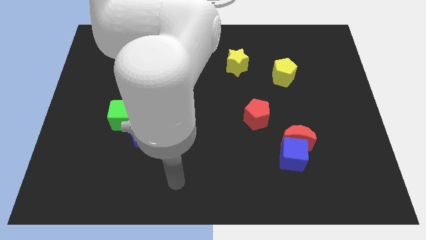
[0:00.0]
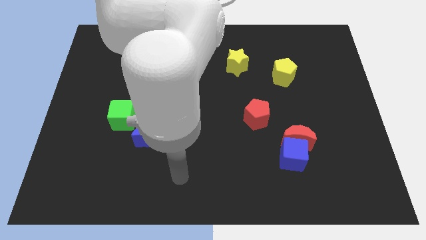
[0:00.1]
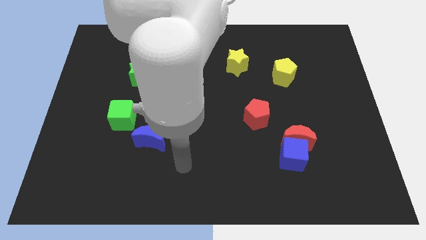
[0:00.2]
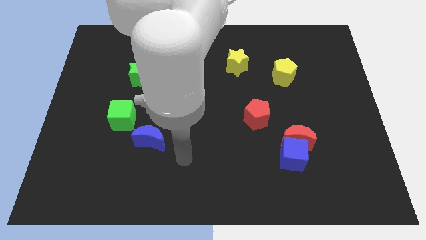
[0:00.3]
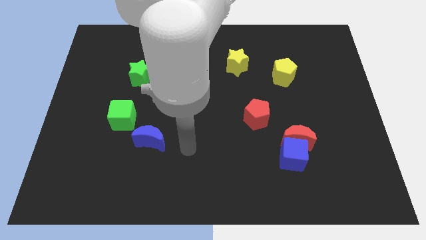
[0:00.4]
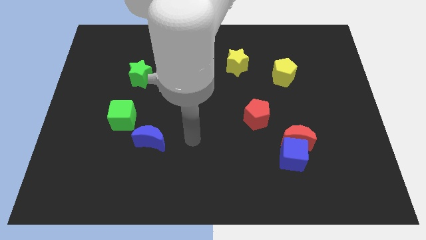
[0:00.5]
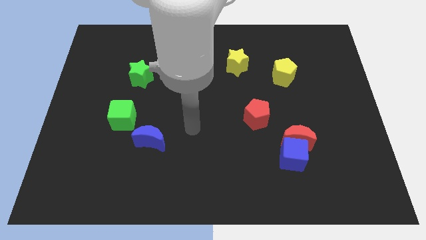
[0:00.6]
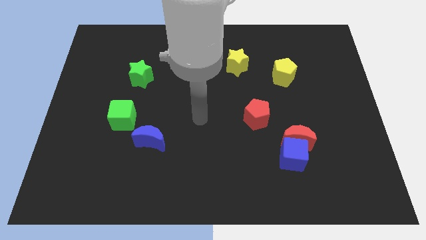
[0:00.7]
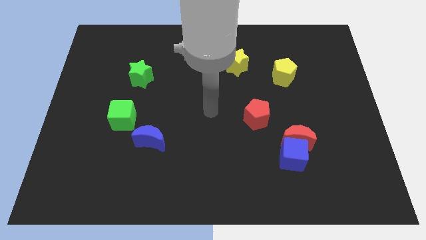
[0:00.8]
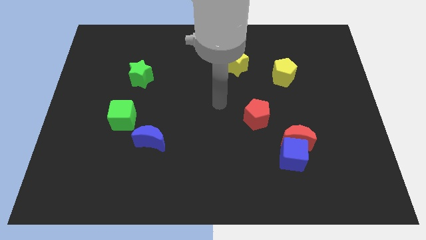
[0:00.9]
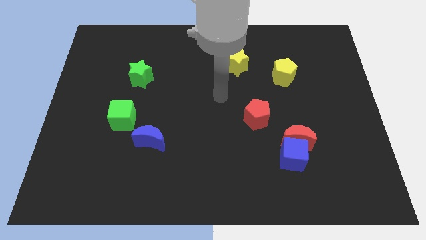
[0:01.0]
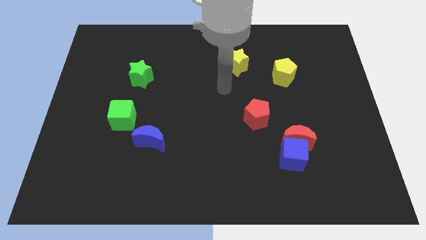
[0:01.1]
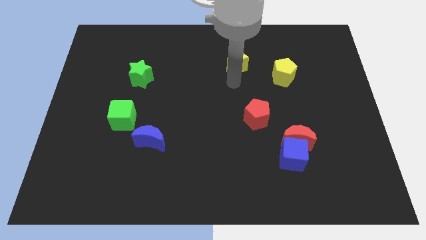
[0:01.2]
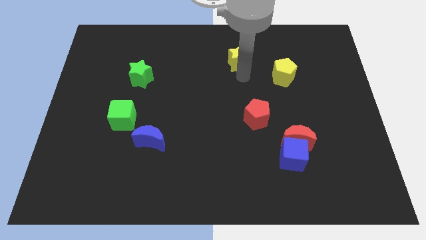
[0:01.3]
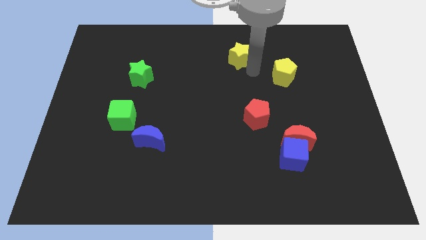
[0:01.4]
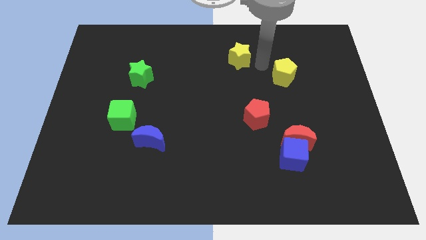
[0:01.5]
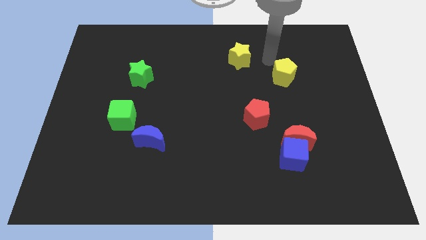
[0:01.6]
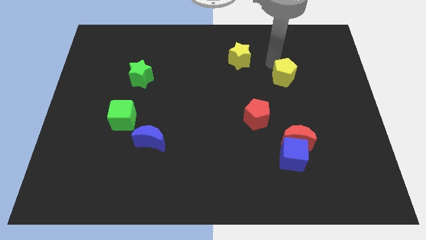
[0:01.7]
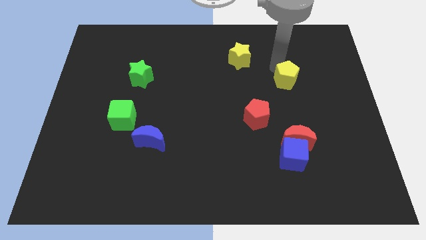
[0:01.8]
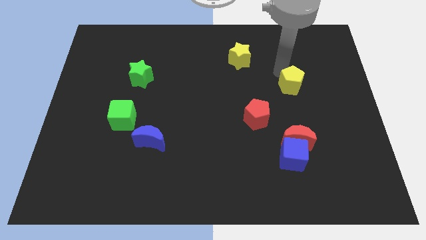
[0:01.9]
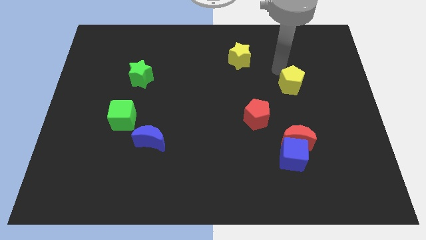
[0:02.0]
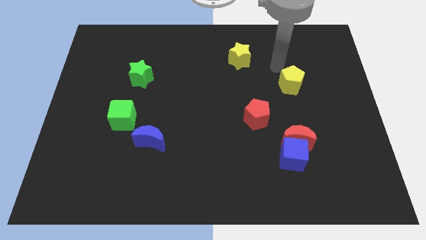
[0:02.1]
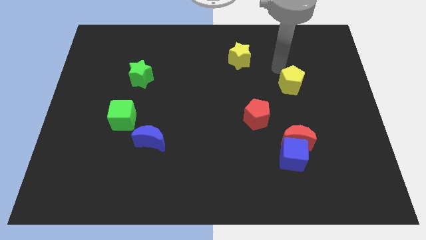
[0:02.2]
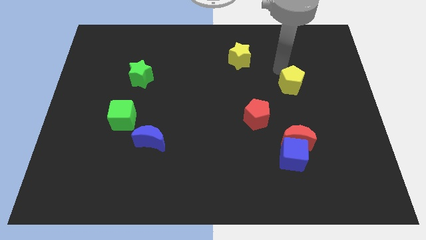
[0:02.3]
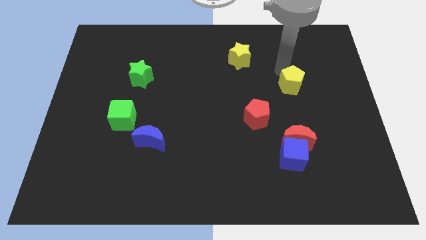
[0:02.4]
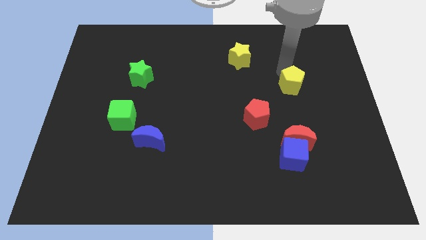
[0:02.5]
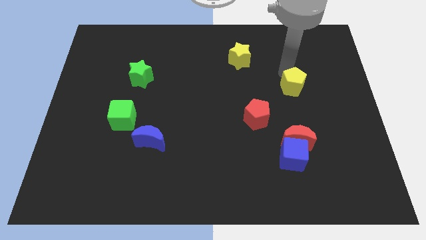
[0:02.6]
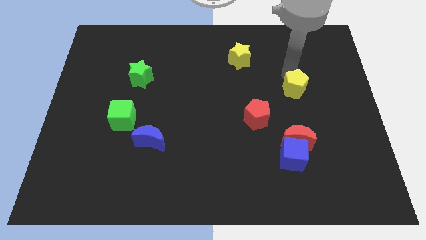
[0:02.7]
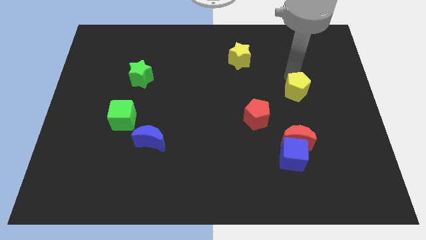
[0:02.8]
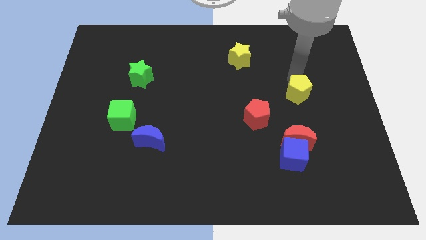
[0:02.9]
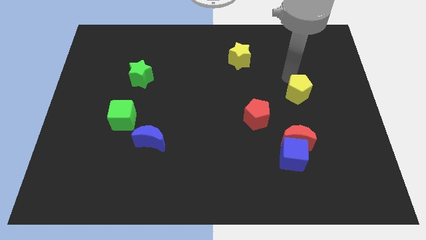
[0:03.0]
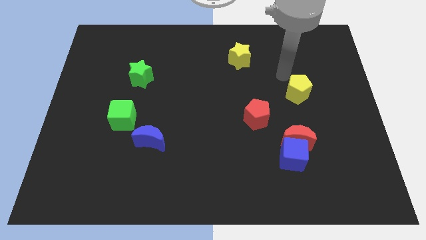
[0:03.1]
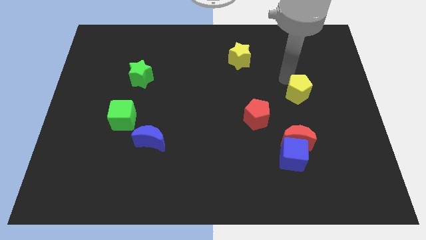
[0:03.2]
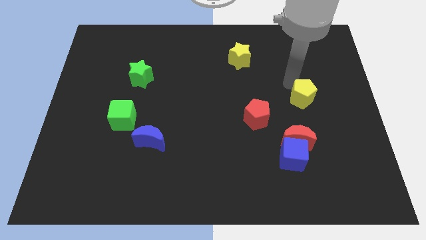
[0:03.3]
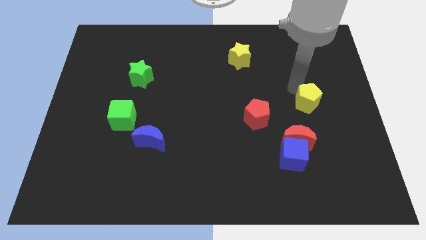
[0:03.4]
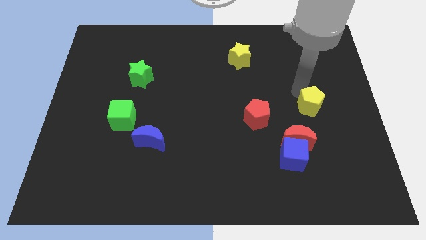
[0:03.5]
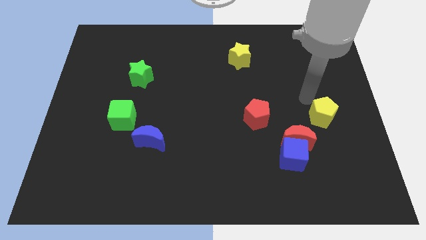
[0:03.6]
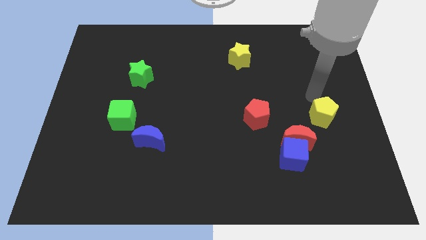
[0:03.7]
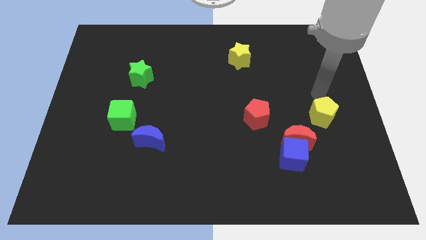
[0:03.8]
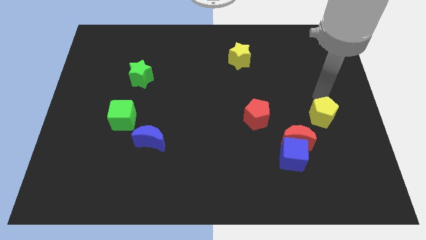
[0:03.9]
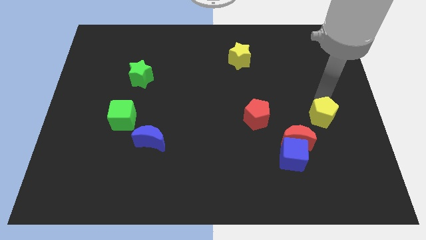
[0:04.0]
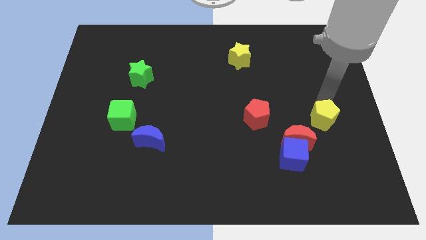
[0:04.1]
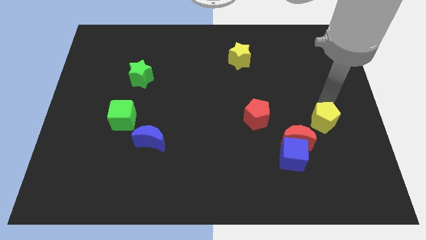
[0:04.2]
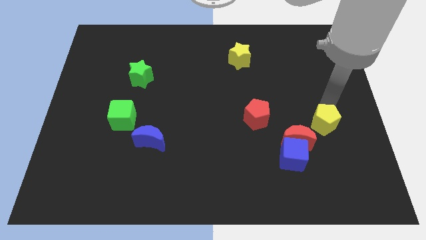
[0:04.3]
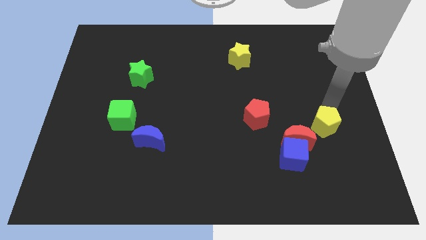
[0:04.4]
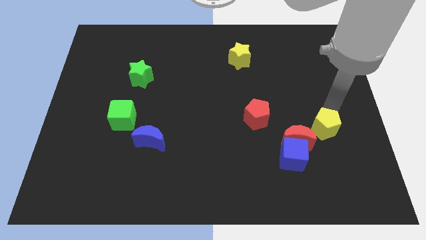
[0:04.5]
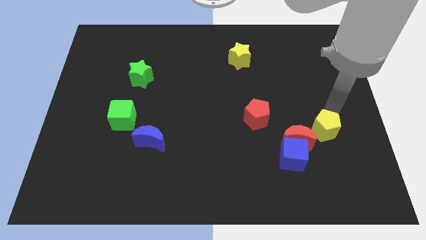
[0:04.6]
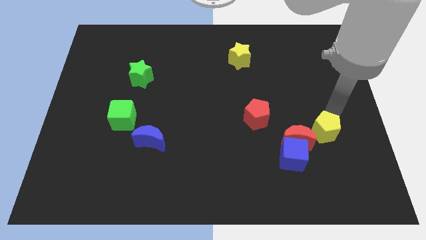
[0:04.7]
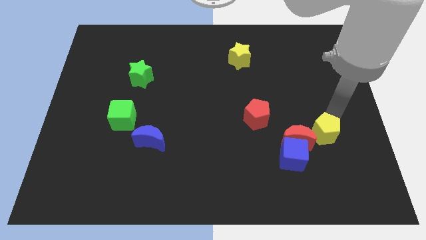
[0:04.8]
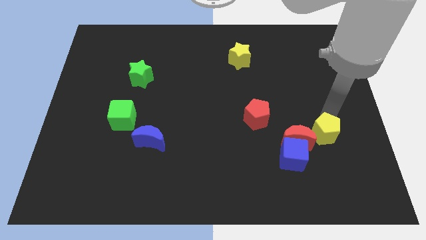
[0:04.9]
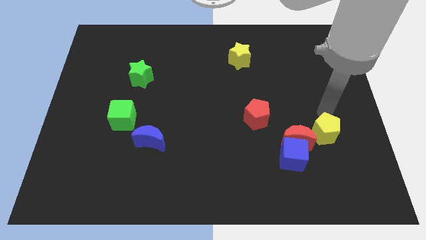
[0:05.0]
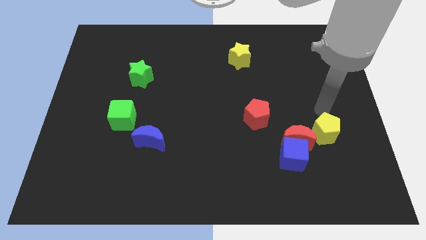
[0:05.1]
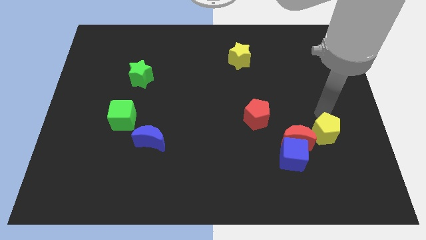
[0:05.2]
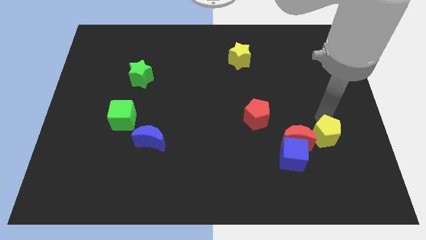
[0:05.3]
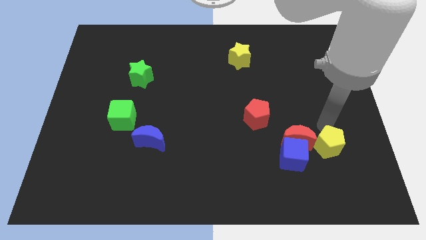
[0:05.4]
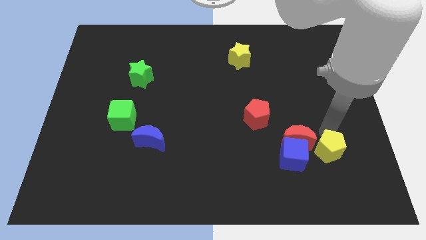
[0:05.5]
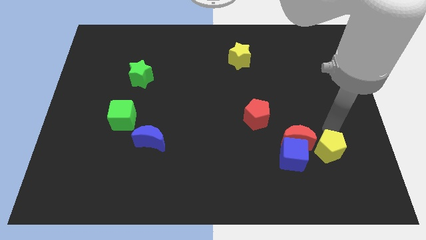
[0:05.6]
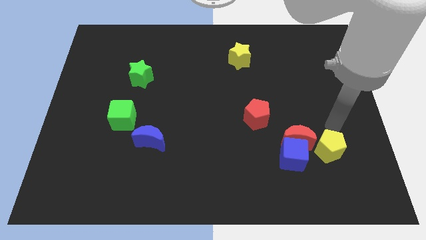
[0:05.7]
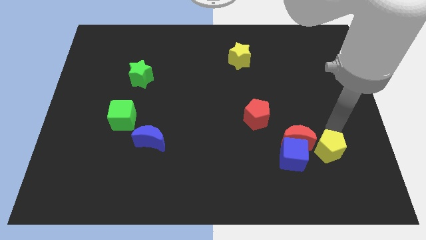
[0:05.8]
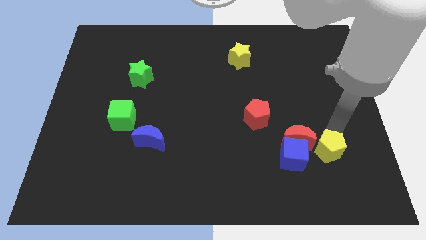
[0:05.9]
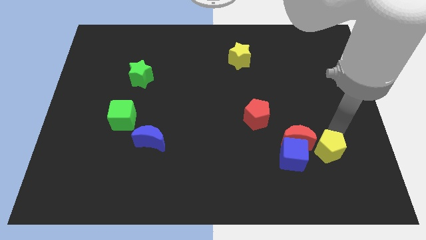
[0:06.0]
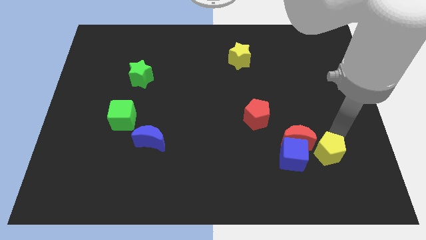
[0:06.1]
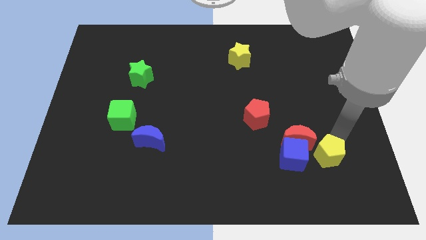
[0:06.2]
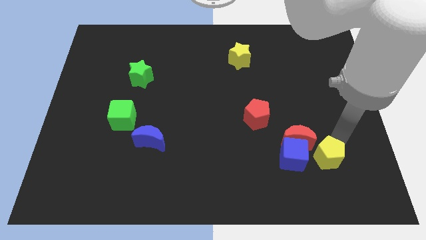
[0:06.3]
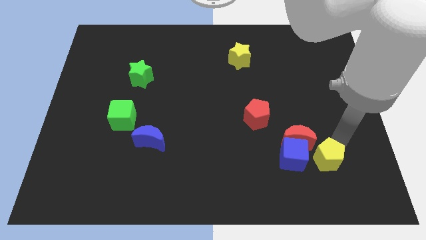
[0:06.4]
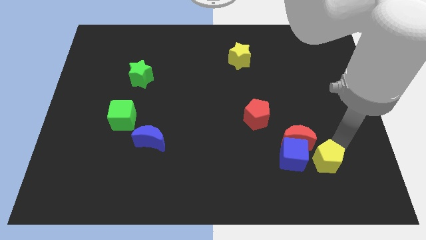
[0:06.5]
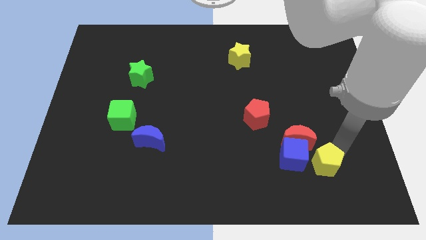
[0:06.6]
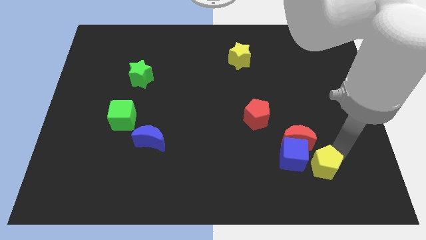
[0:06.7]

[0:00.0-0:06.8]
put the yellow pentagon below the red moon

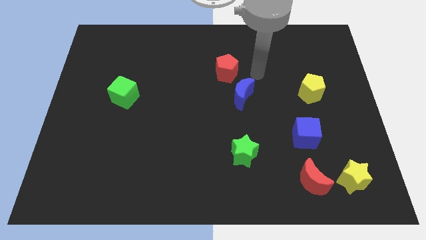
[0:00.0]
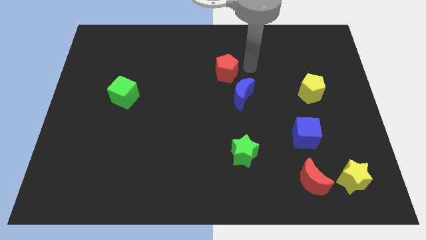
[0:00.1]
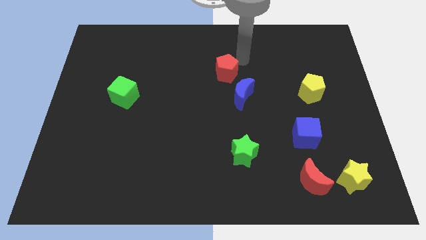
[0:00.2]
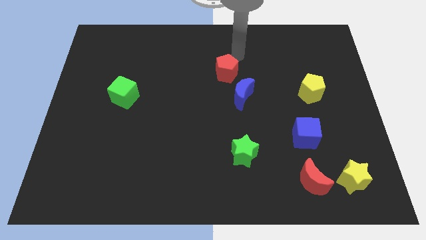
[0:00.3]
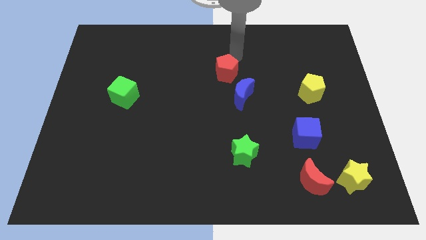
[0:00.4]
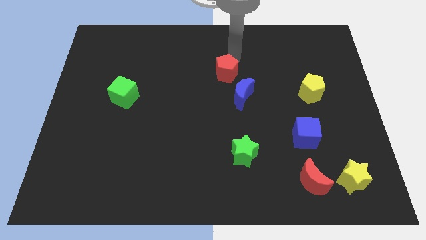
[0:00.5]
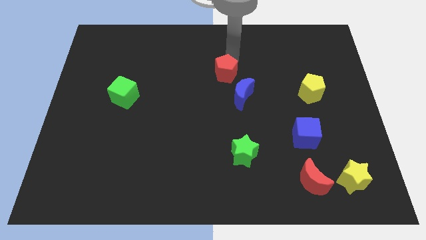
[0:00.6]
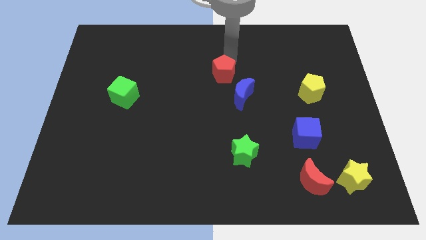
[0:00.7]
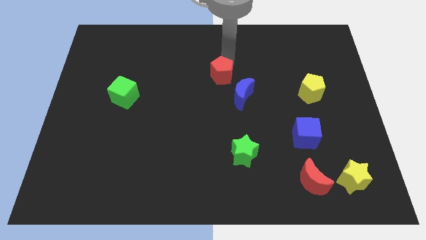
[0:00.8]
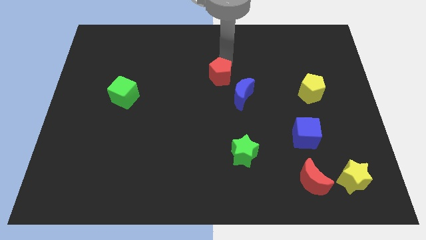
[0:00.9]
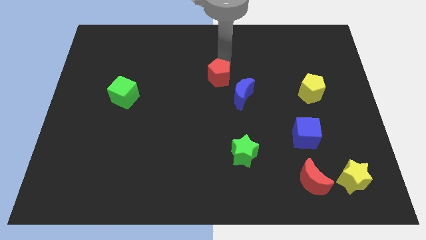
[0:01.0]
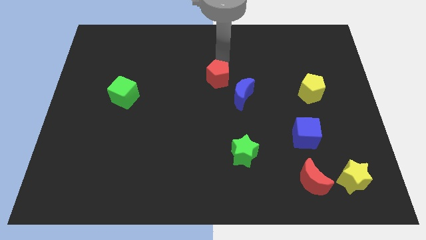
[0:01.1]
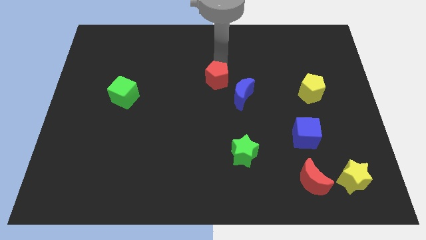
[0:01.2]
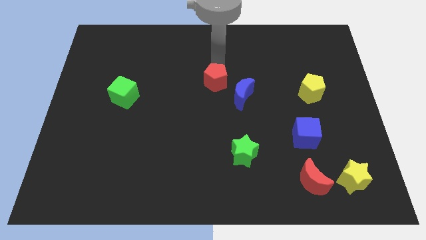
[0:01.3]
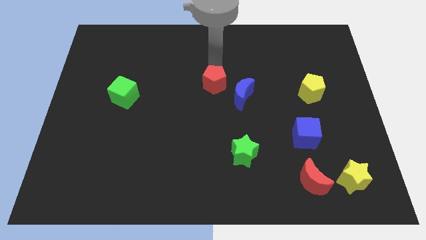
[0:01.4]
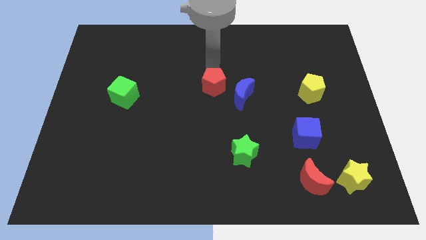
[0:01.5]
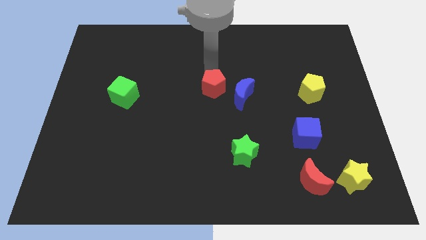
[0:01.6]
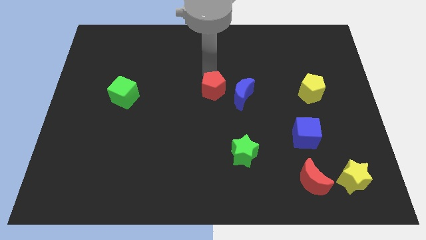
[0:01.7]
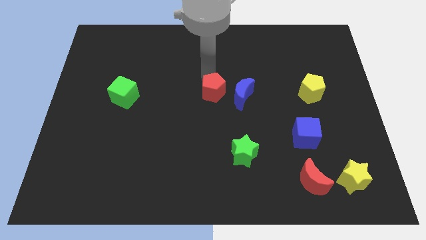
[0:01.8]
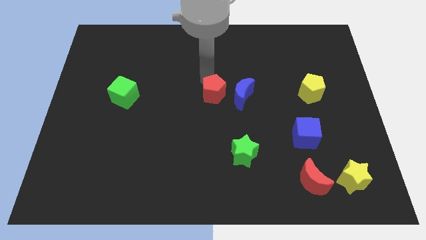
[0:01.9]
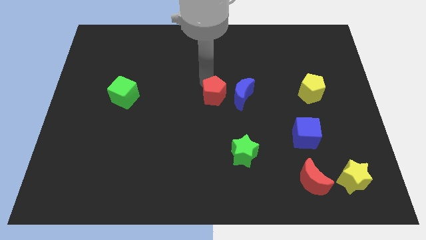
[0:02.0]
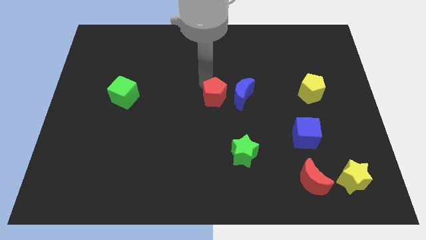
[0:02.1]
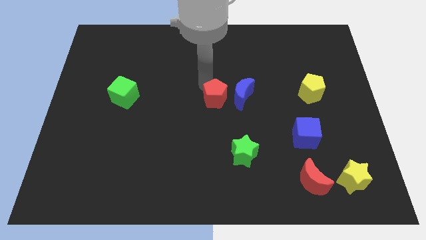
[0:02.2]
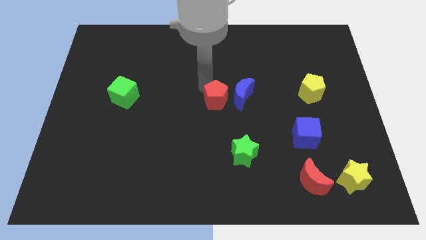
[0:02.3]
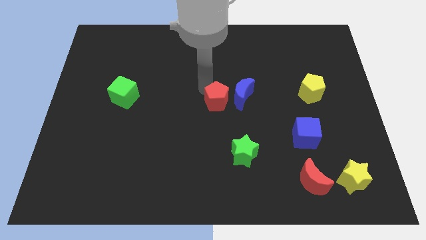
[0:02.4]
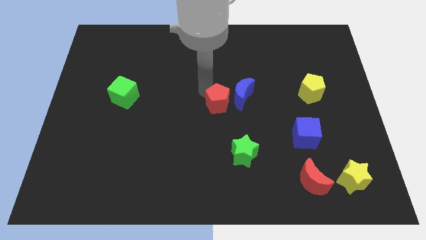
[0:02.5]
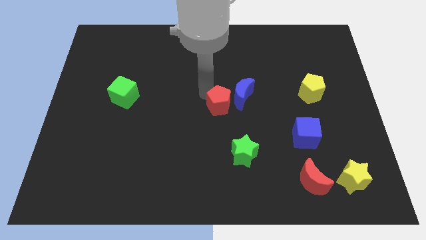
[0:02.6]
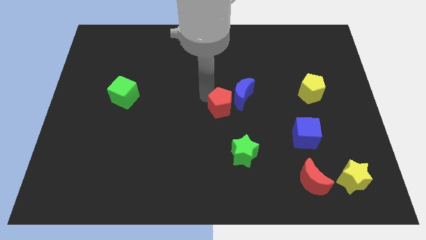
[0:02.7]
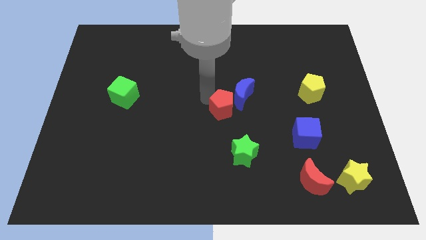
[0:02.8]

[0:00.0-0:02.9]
put the red pentagon to the top side of the green star
